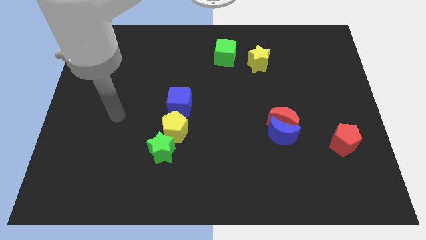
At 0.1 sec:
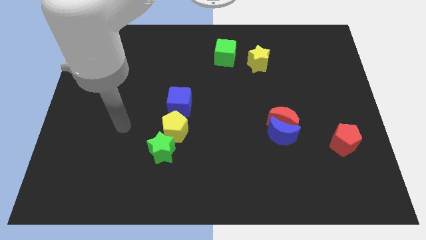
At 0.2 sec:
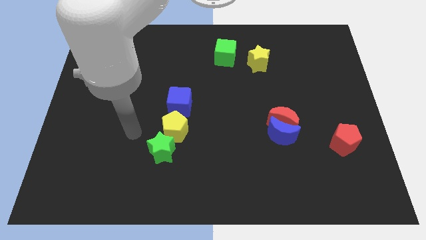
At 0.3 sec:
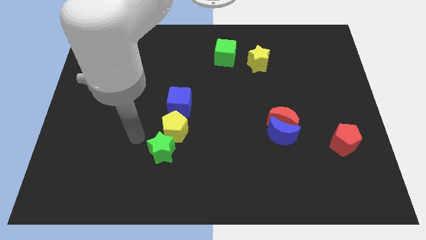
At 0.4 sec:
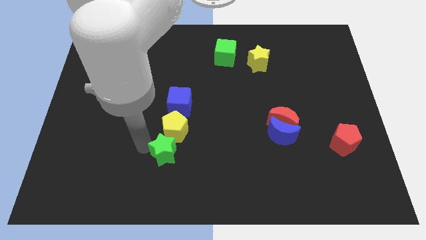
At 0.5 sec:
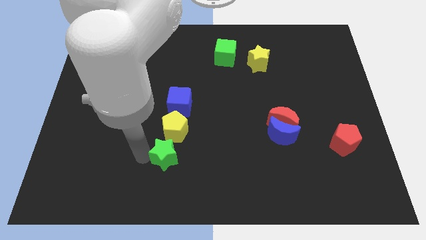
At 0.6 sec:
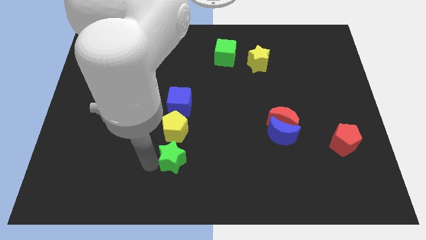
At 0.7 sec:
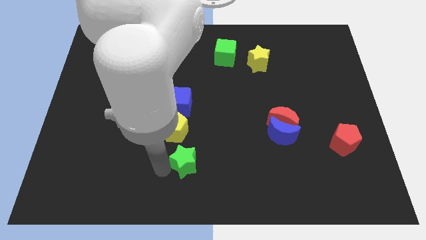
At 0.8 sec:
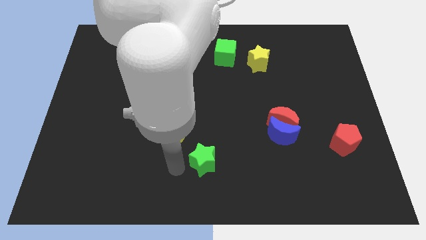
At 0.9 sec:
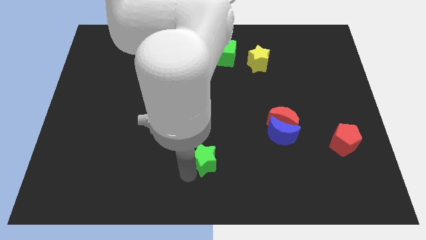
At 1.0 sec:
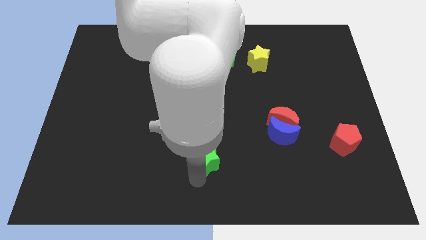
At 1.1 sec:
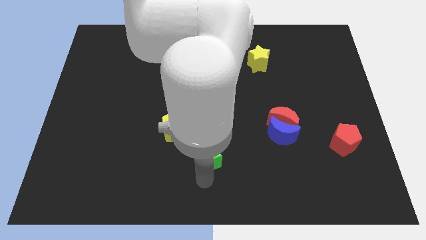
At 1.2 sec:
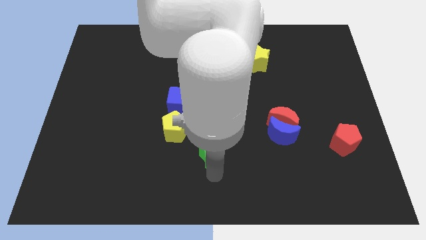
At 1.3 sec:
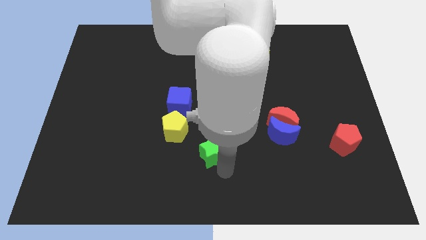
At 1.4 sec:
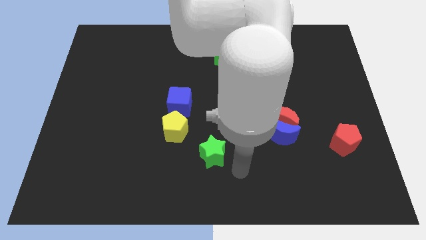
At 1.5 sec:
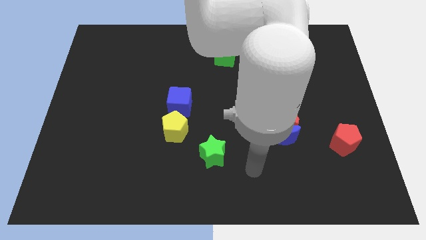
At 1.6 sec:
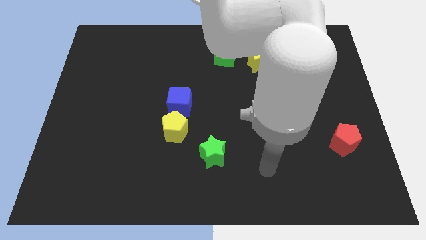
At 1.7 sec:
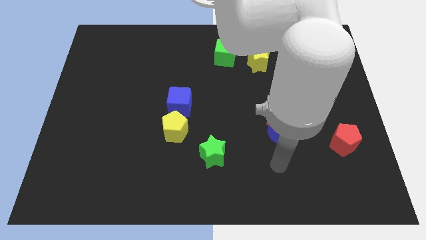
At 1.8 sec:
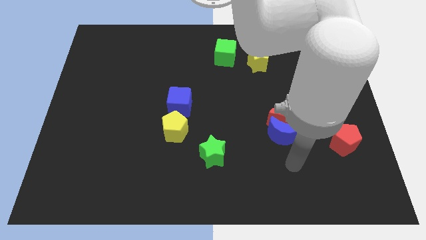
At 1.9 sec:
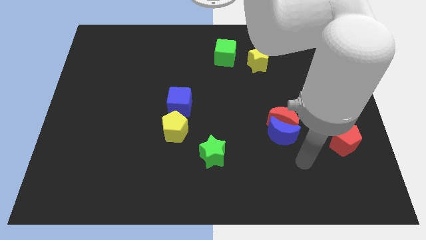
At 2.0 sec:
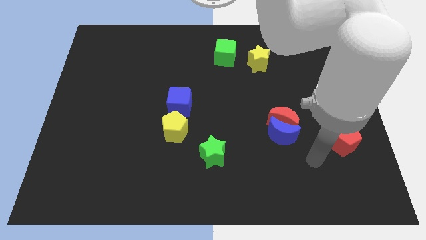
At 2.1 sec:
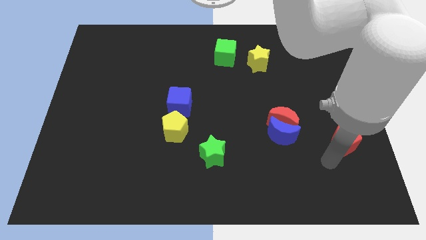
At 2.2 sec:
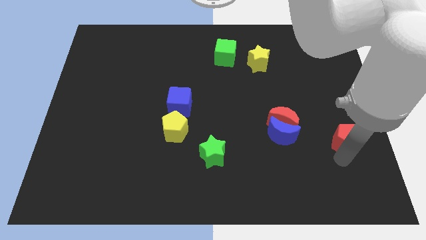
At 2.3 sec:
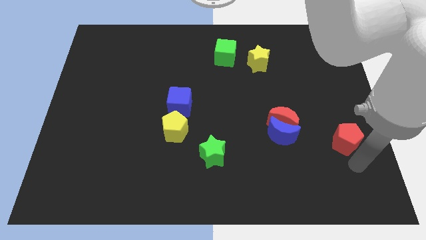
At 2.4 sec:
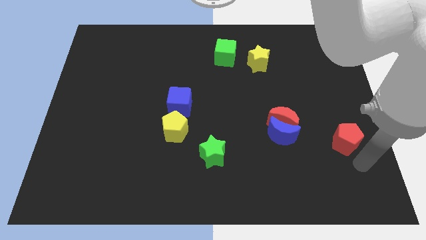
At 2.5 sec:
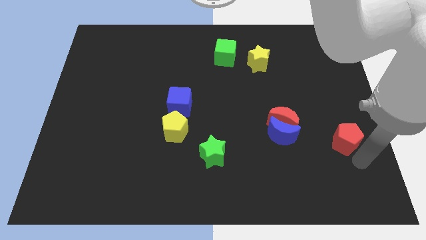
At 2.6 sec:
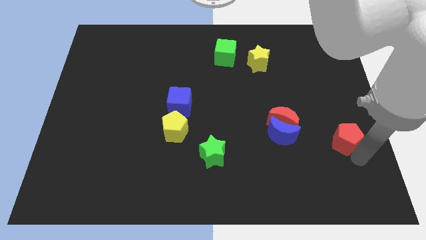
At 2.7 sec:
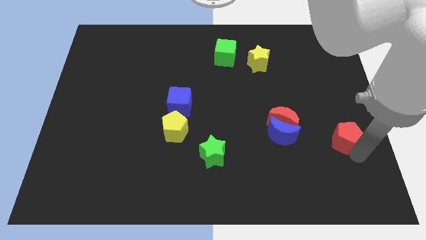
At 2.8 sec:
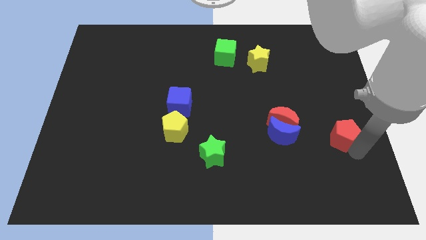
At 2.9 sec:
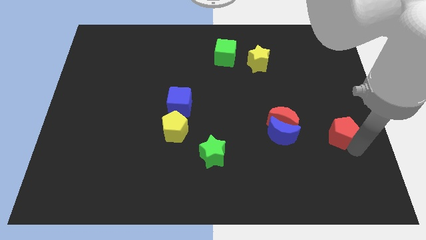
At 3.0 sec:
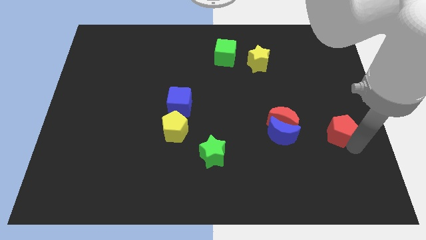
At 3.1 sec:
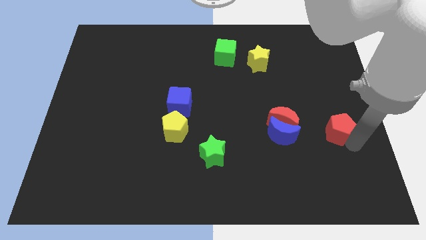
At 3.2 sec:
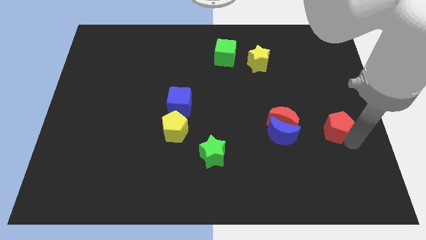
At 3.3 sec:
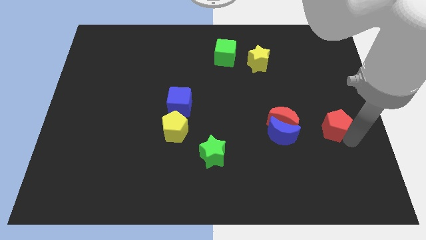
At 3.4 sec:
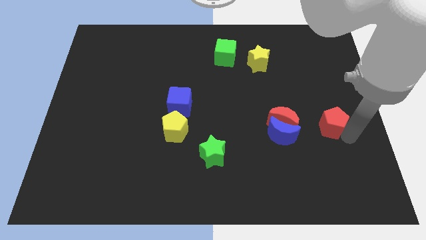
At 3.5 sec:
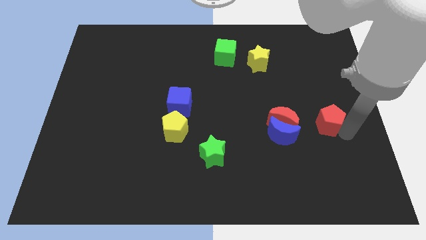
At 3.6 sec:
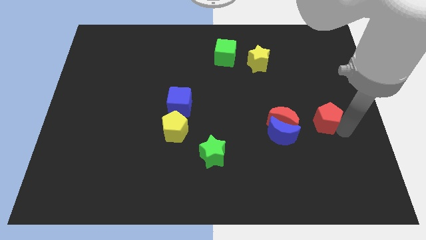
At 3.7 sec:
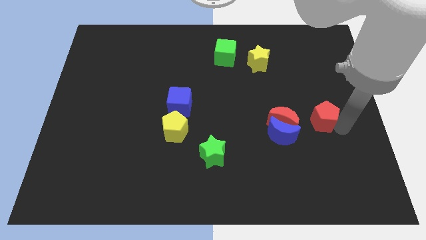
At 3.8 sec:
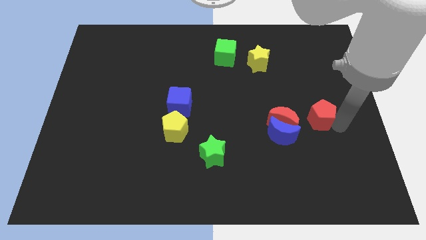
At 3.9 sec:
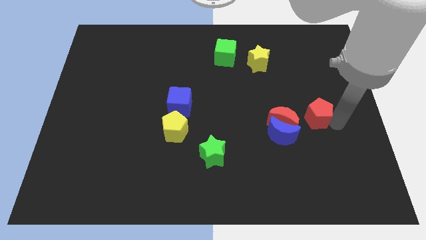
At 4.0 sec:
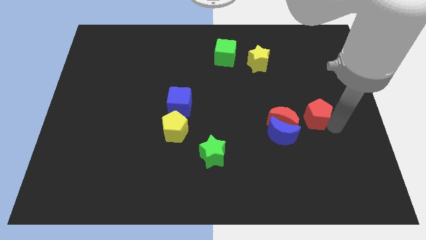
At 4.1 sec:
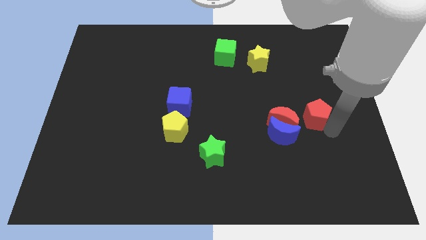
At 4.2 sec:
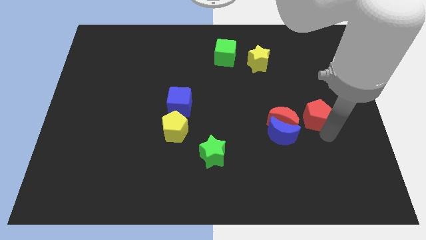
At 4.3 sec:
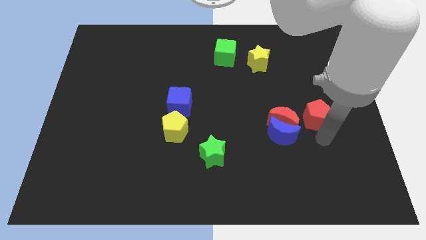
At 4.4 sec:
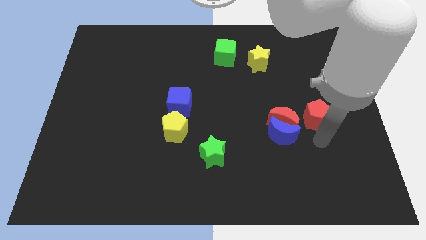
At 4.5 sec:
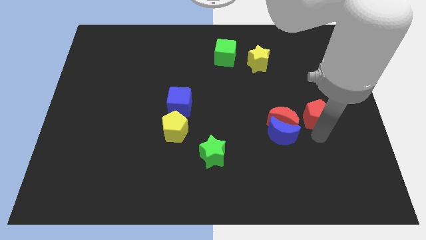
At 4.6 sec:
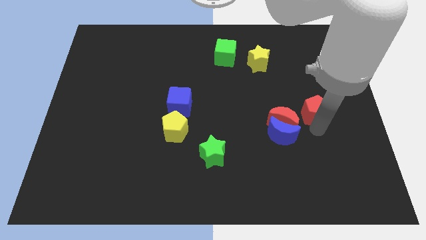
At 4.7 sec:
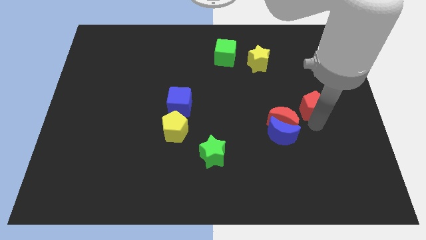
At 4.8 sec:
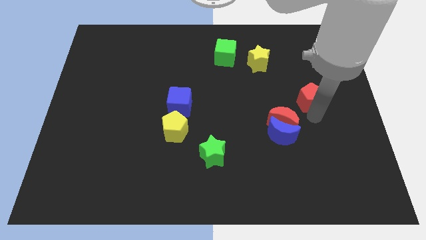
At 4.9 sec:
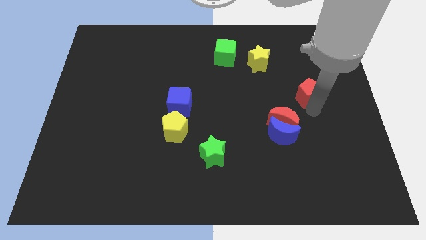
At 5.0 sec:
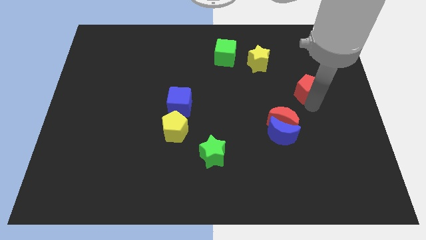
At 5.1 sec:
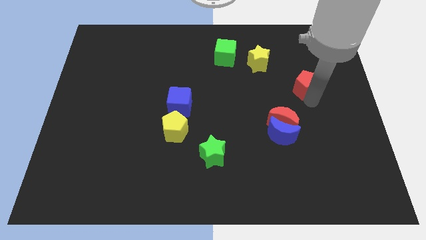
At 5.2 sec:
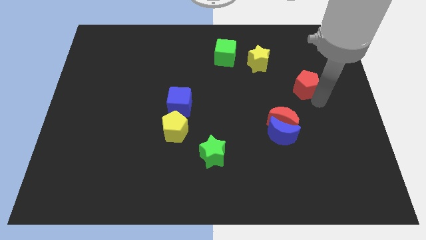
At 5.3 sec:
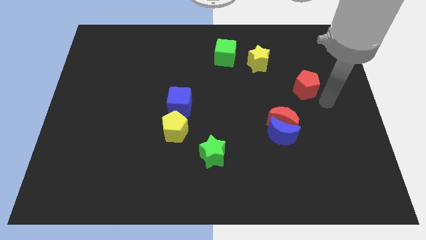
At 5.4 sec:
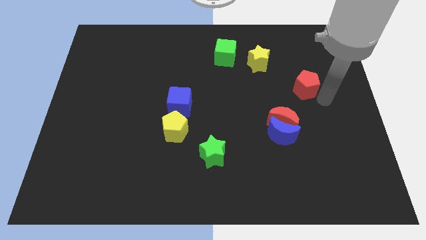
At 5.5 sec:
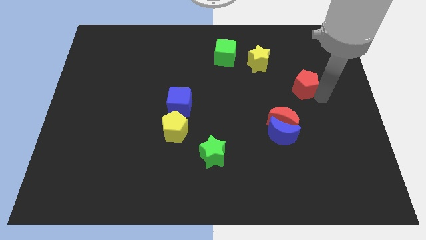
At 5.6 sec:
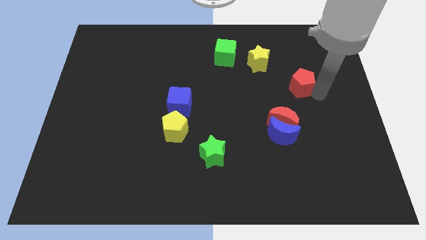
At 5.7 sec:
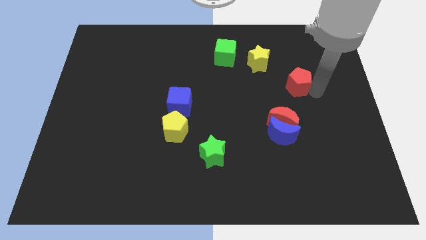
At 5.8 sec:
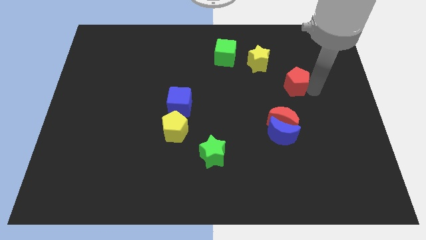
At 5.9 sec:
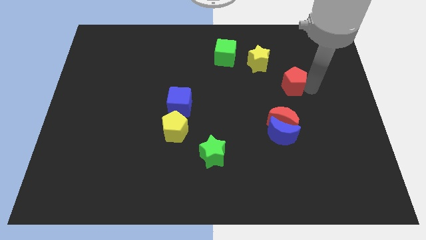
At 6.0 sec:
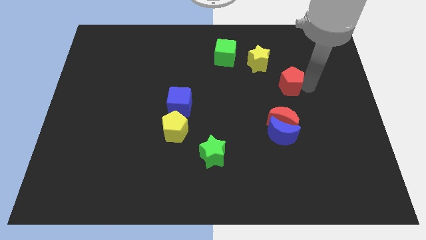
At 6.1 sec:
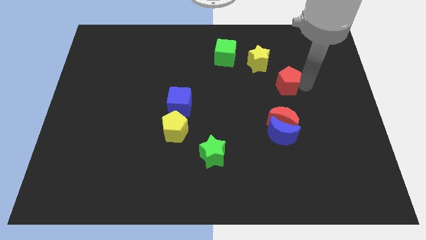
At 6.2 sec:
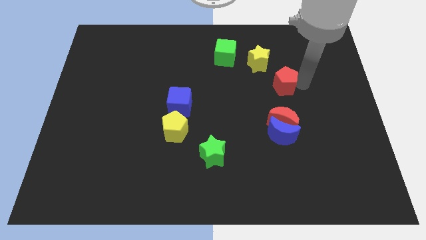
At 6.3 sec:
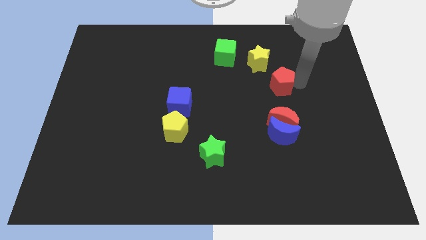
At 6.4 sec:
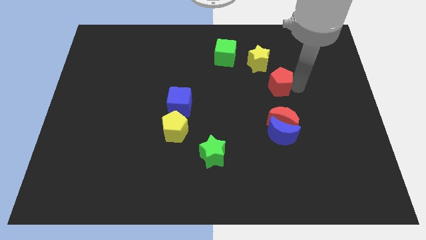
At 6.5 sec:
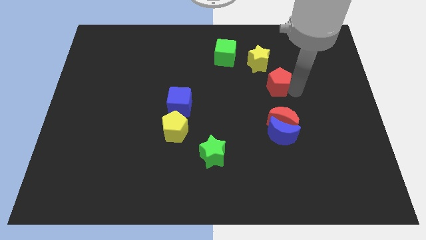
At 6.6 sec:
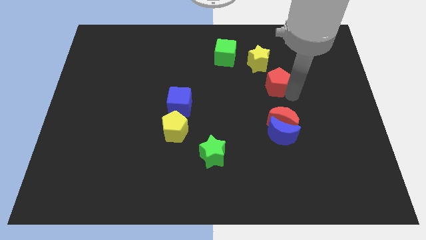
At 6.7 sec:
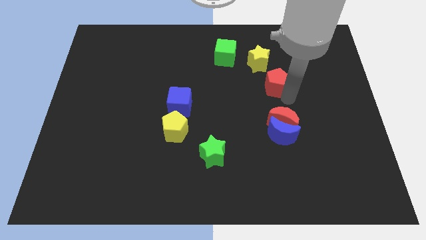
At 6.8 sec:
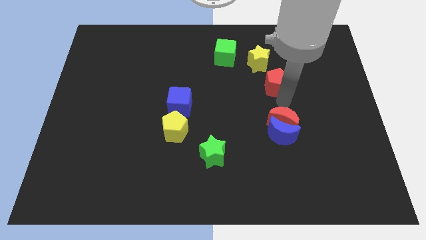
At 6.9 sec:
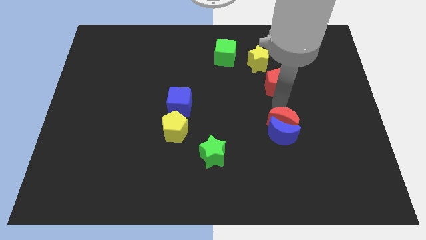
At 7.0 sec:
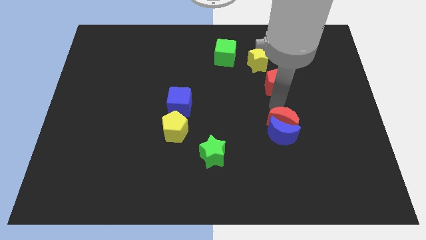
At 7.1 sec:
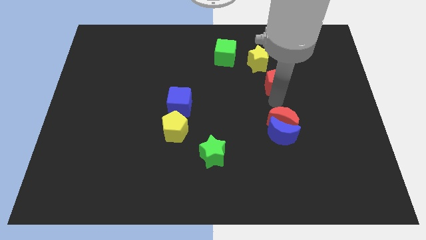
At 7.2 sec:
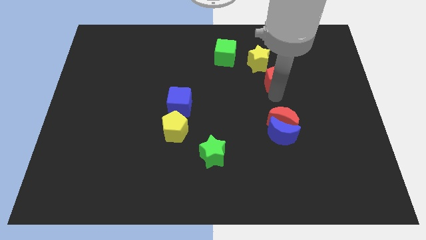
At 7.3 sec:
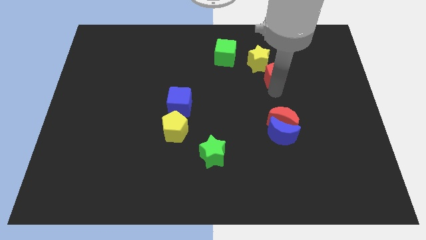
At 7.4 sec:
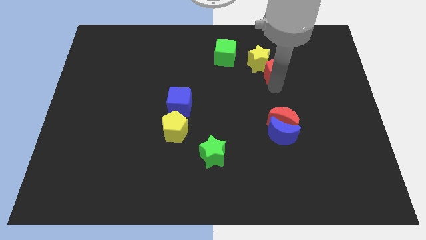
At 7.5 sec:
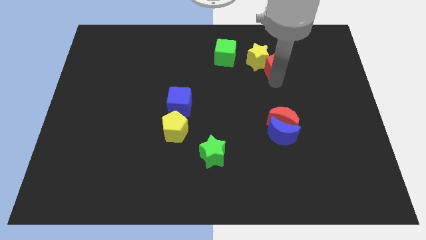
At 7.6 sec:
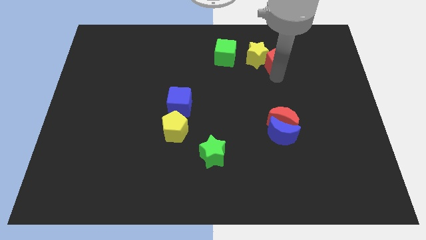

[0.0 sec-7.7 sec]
put the red pentagon right of the green cube
